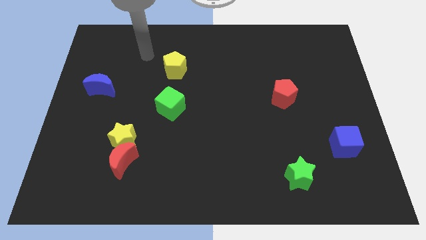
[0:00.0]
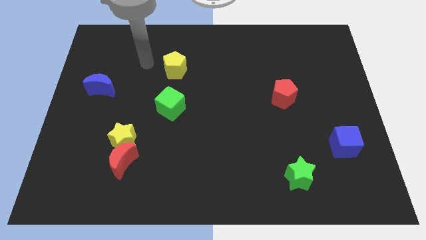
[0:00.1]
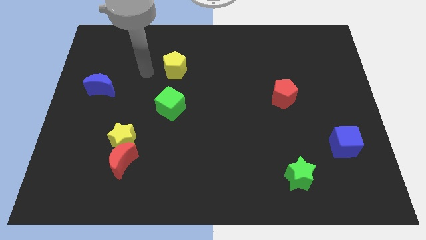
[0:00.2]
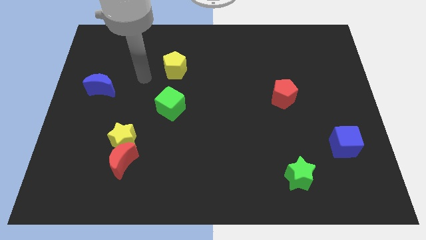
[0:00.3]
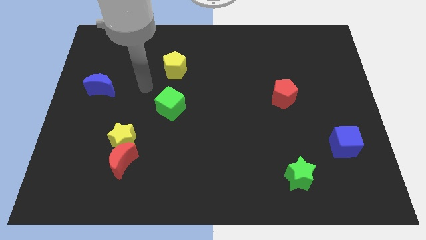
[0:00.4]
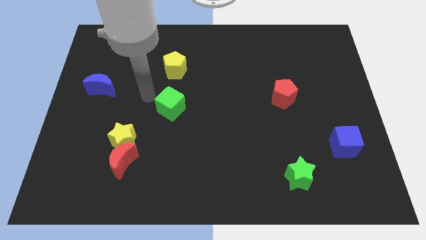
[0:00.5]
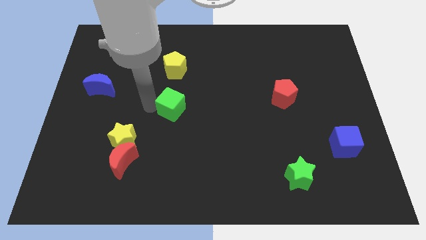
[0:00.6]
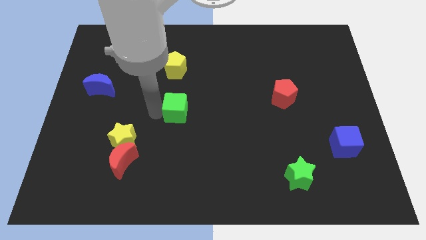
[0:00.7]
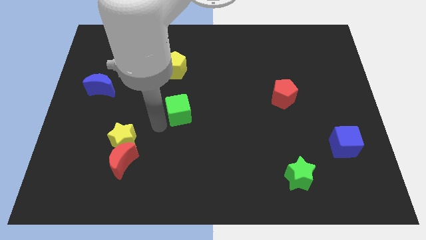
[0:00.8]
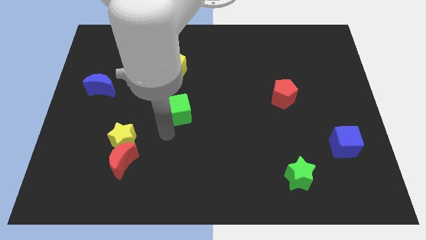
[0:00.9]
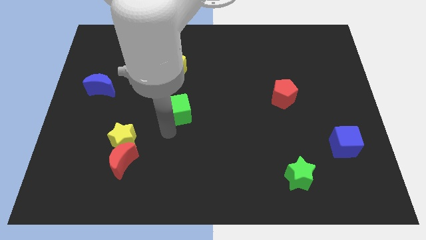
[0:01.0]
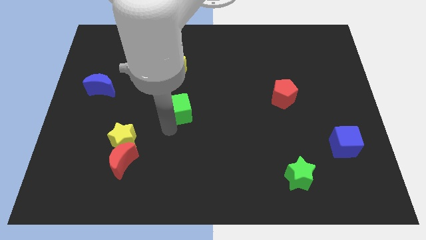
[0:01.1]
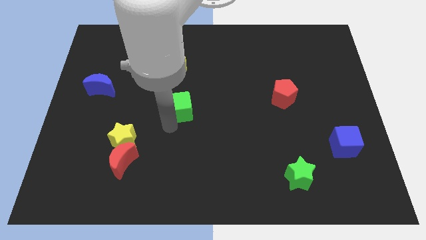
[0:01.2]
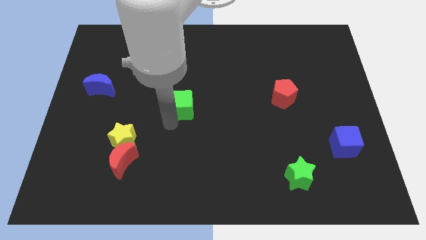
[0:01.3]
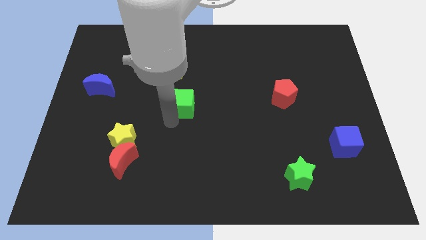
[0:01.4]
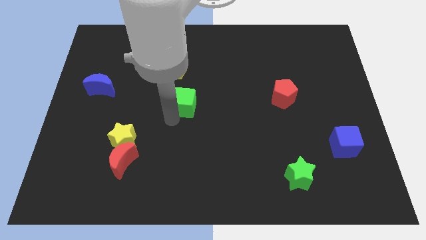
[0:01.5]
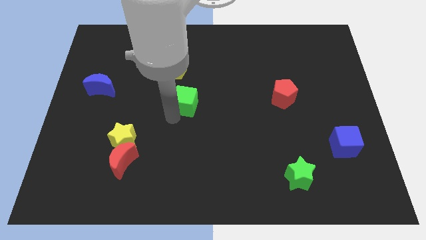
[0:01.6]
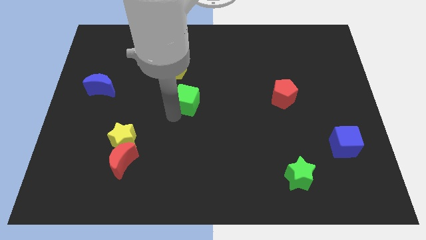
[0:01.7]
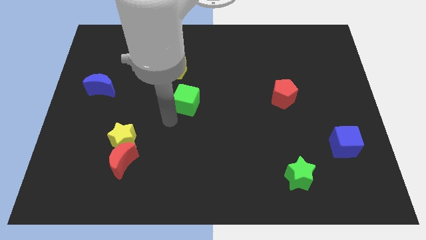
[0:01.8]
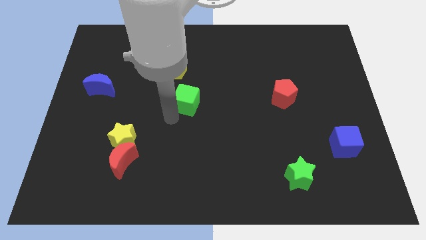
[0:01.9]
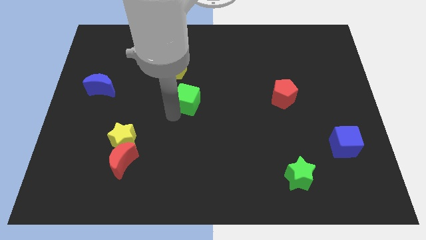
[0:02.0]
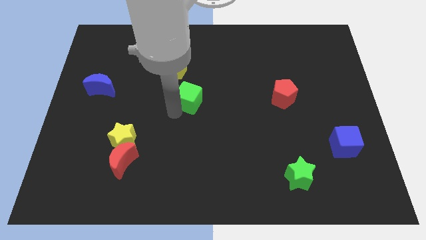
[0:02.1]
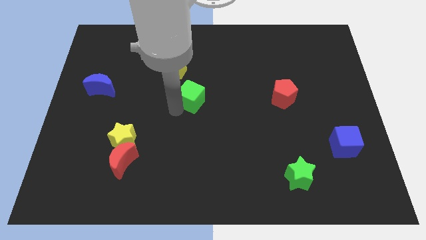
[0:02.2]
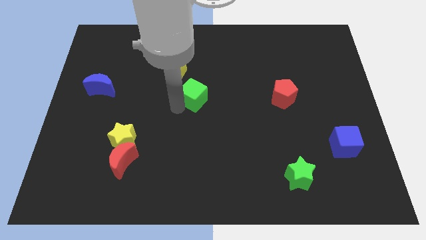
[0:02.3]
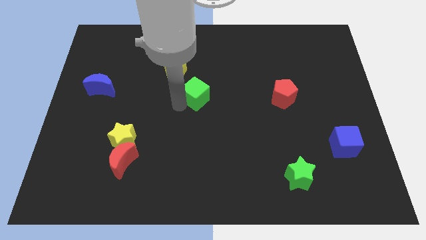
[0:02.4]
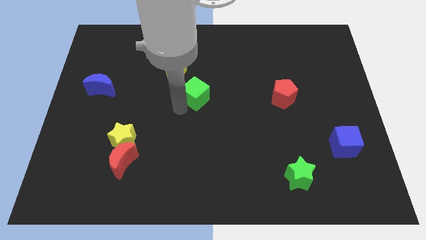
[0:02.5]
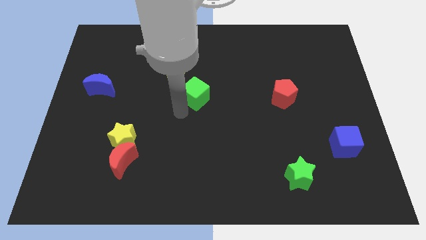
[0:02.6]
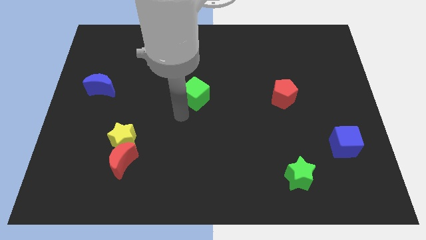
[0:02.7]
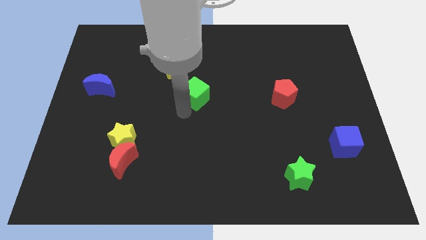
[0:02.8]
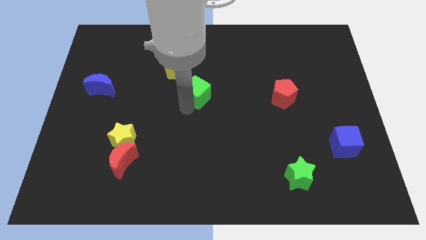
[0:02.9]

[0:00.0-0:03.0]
move the green cube diagonally upwards and to the right somewhat

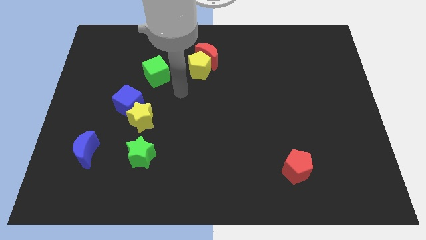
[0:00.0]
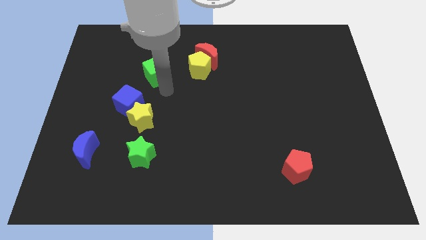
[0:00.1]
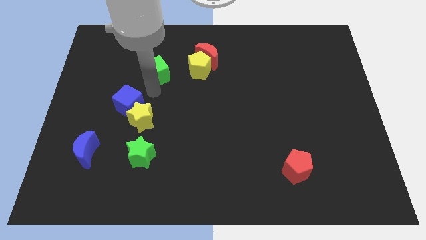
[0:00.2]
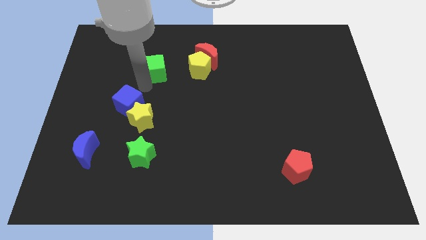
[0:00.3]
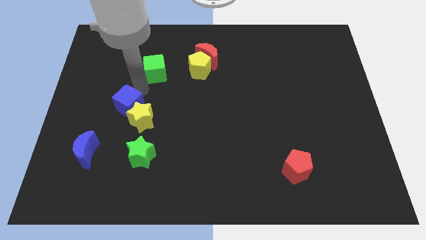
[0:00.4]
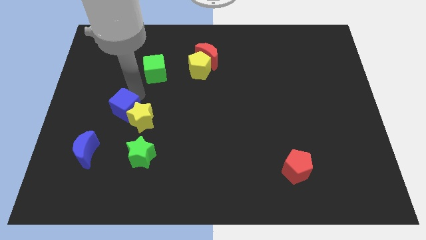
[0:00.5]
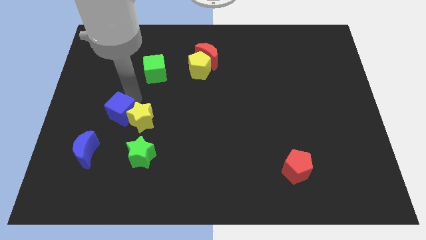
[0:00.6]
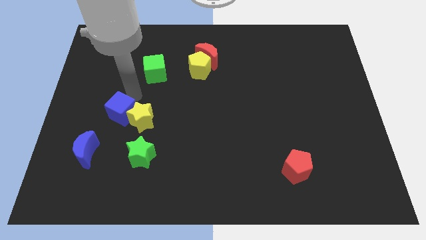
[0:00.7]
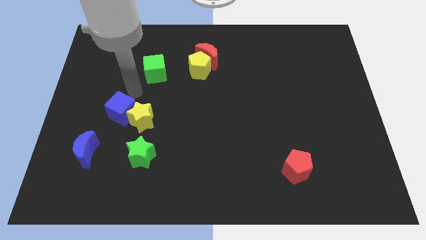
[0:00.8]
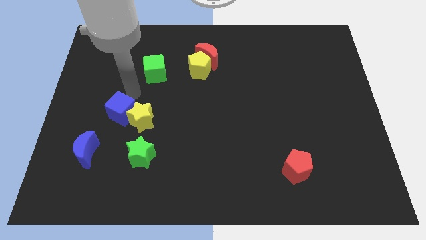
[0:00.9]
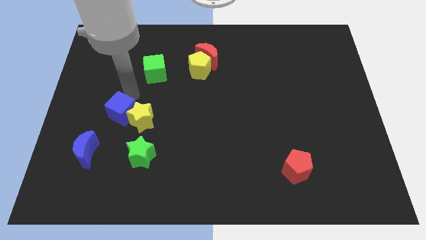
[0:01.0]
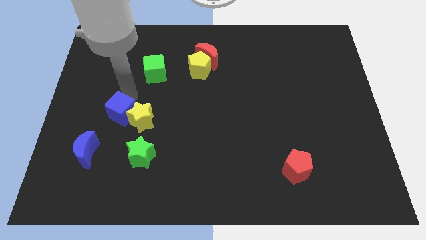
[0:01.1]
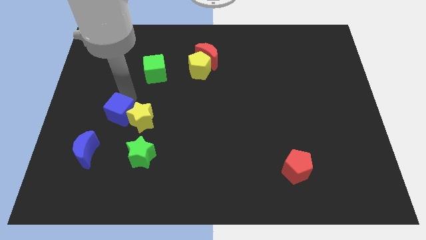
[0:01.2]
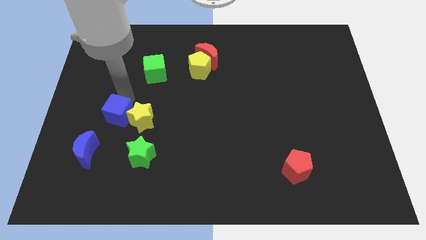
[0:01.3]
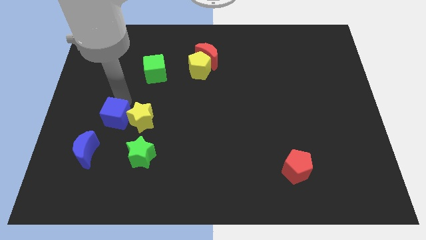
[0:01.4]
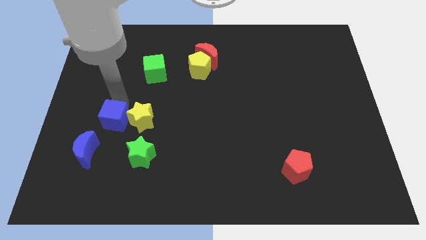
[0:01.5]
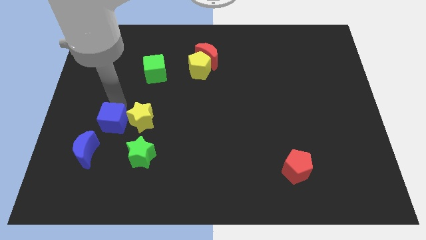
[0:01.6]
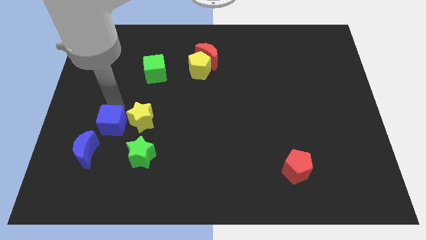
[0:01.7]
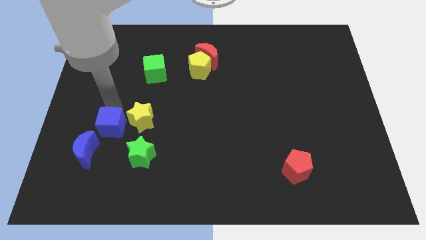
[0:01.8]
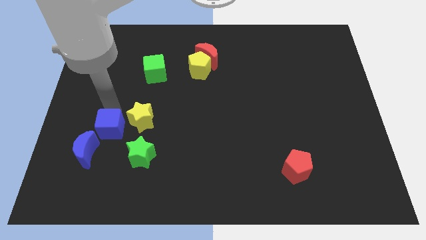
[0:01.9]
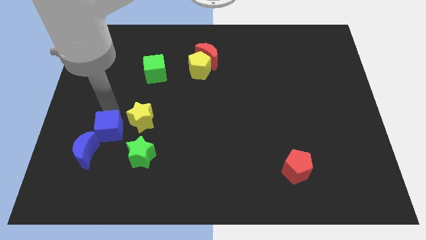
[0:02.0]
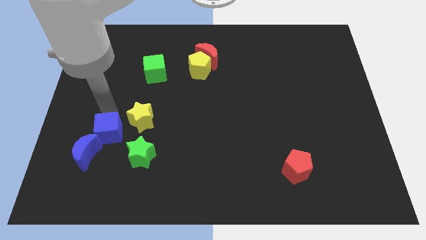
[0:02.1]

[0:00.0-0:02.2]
move the blue cube a bit downwards

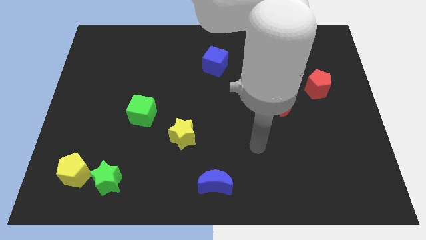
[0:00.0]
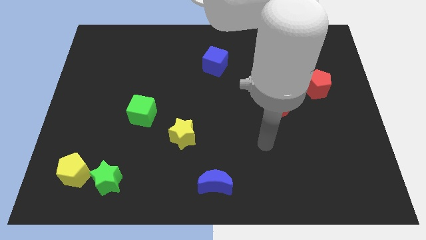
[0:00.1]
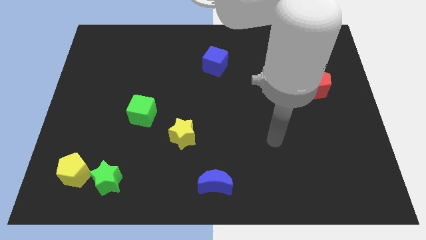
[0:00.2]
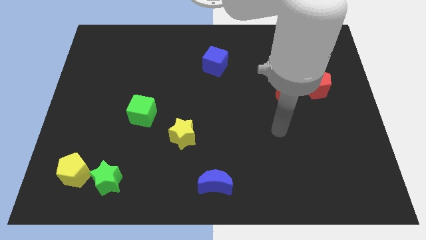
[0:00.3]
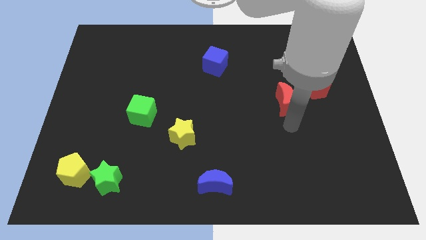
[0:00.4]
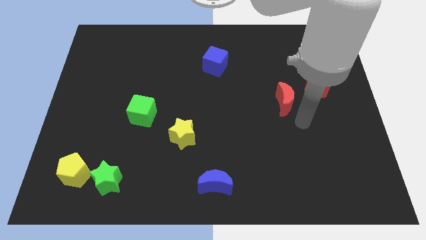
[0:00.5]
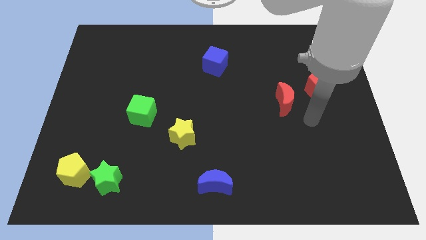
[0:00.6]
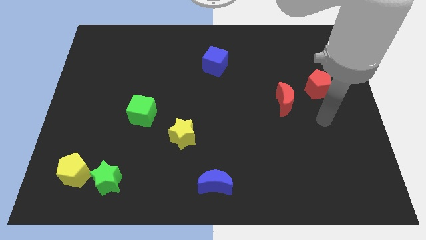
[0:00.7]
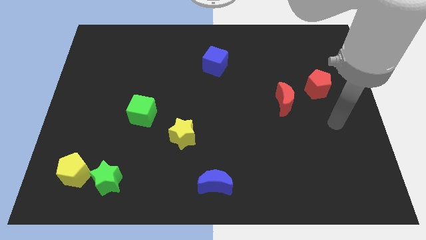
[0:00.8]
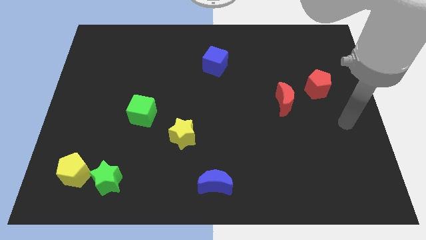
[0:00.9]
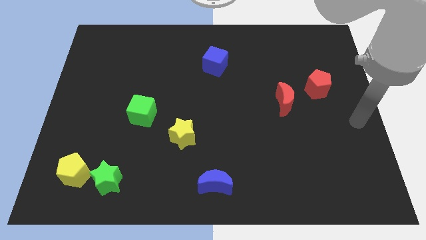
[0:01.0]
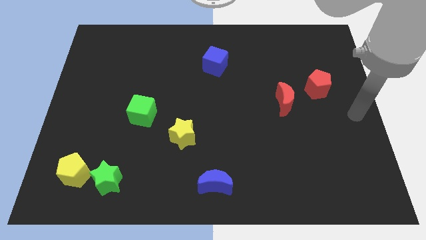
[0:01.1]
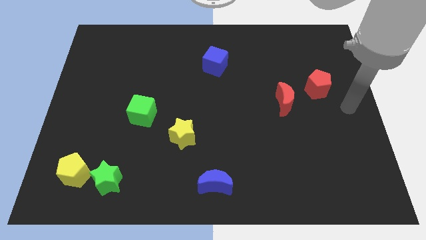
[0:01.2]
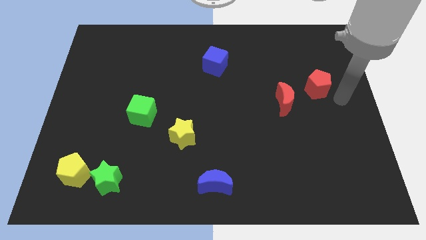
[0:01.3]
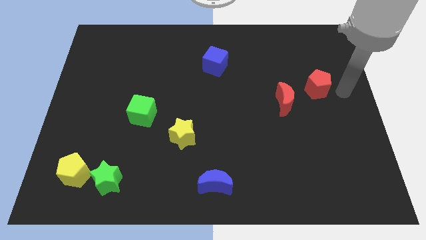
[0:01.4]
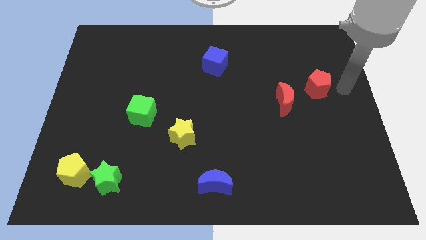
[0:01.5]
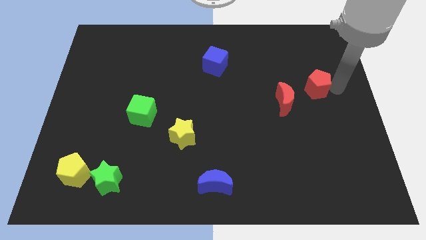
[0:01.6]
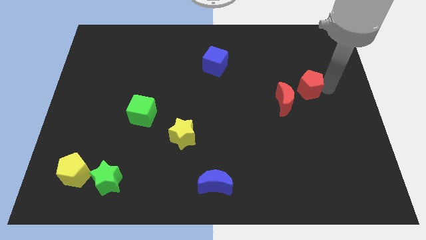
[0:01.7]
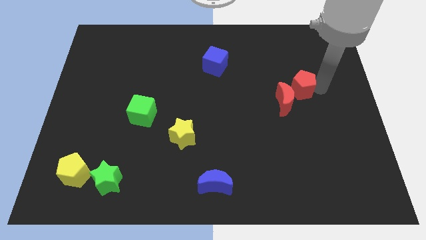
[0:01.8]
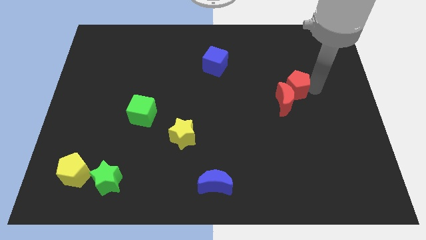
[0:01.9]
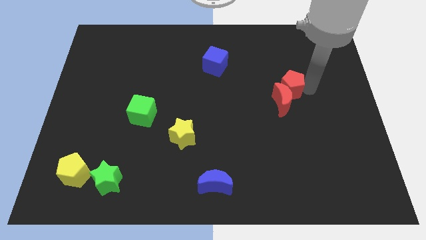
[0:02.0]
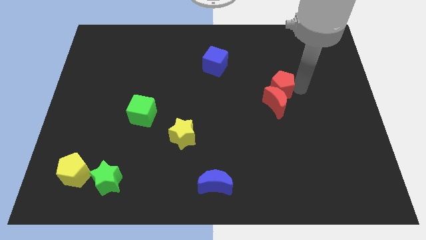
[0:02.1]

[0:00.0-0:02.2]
slightly push the red pentagon left

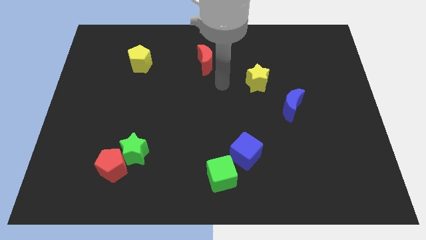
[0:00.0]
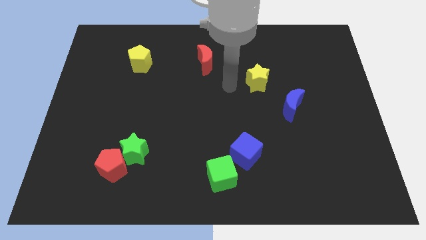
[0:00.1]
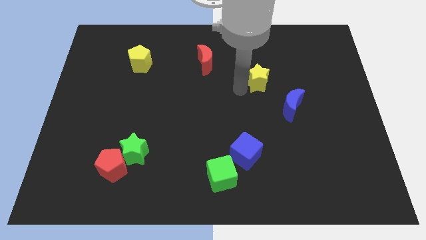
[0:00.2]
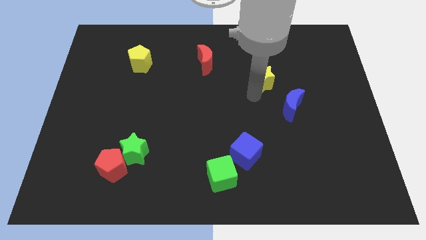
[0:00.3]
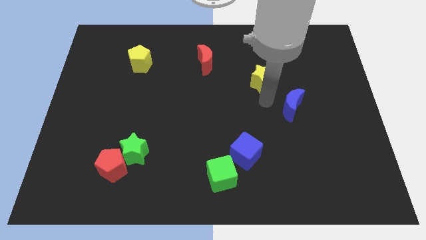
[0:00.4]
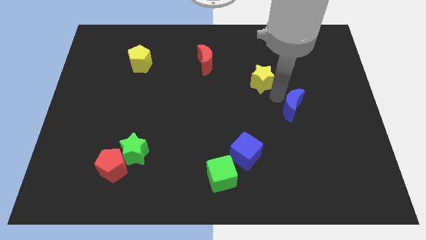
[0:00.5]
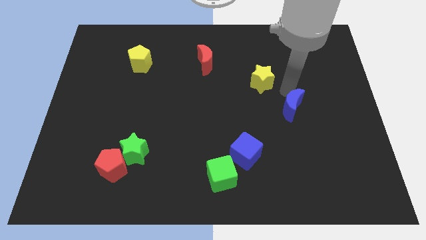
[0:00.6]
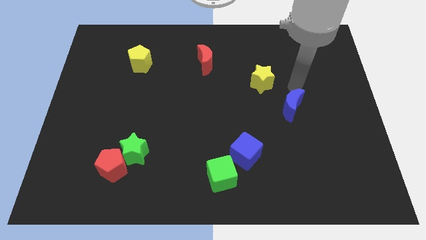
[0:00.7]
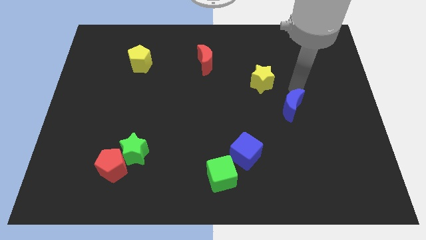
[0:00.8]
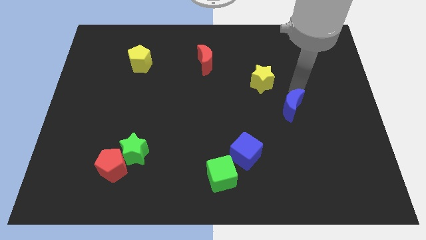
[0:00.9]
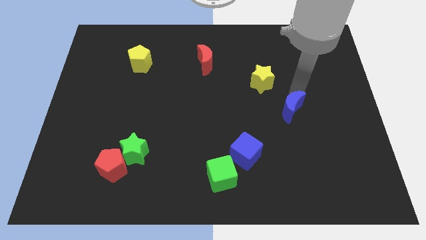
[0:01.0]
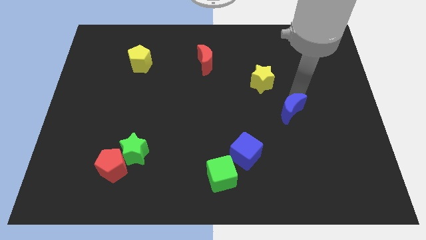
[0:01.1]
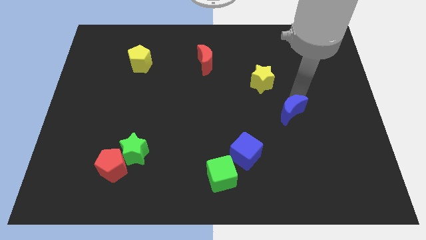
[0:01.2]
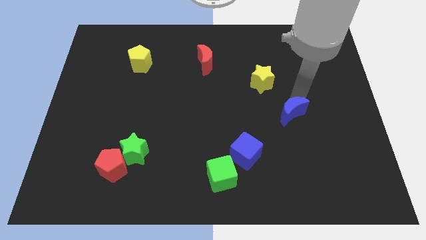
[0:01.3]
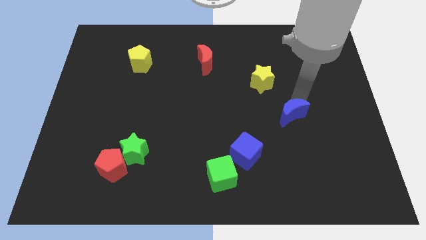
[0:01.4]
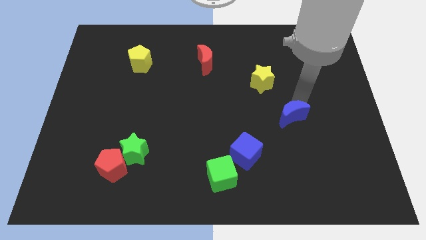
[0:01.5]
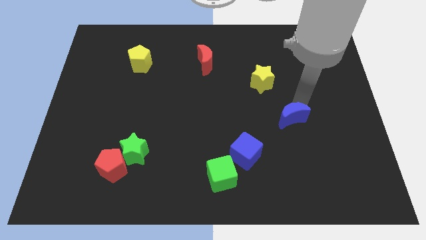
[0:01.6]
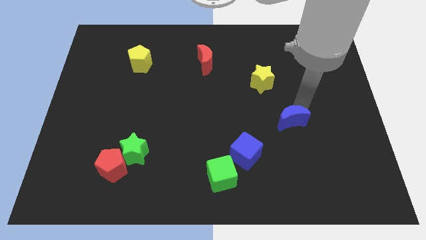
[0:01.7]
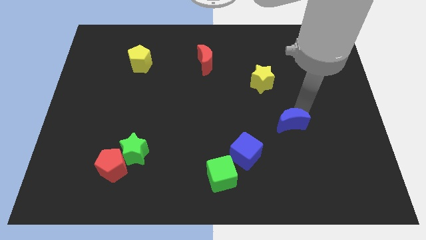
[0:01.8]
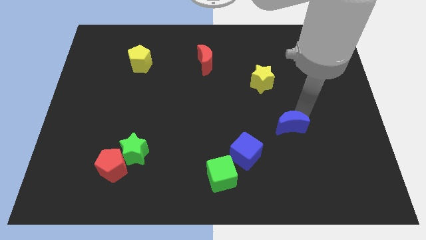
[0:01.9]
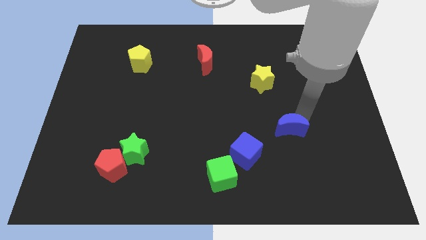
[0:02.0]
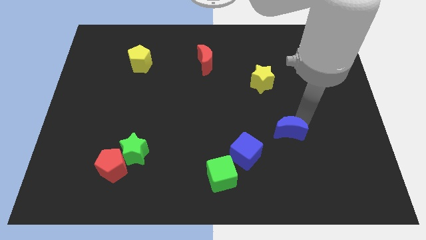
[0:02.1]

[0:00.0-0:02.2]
slide the blue moon somewhat downwards
